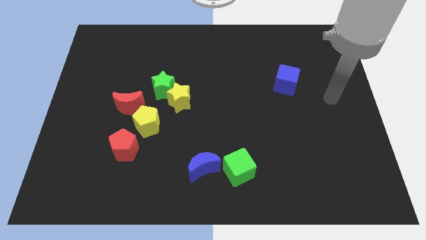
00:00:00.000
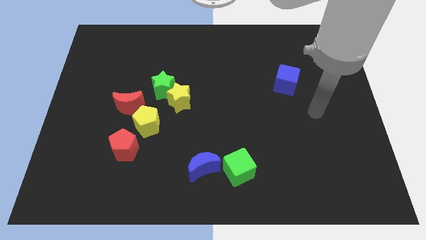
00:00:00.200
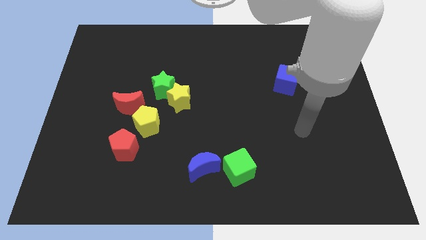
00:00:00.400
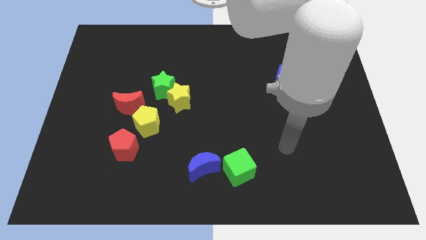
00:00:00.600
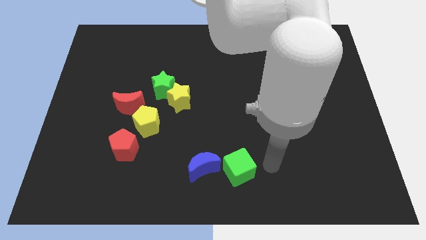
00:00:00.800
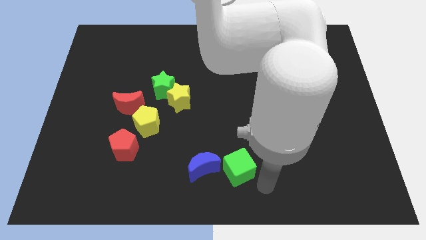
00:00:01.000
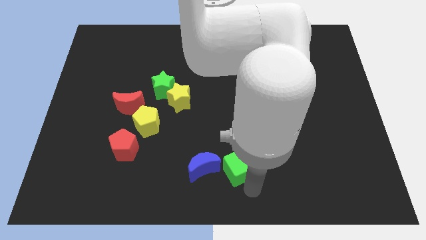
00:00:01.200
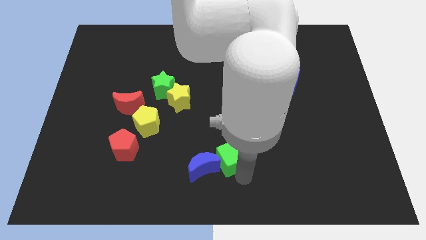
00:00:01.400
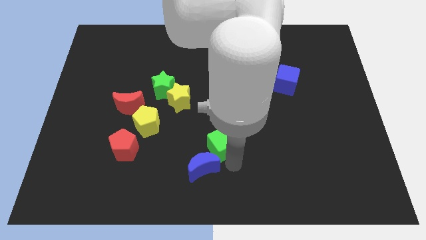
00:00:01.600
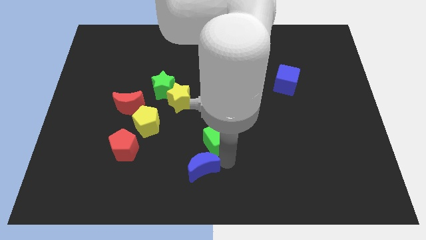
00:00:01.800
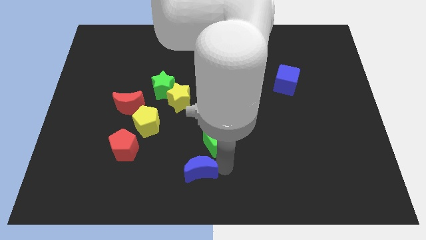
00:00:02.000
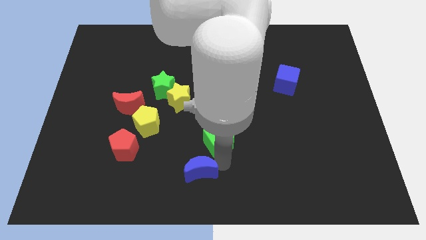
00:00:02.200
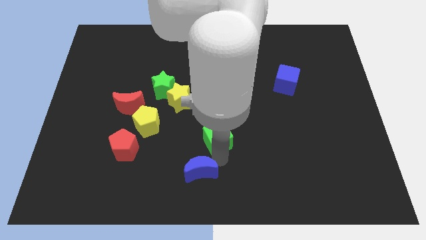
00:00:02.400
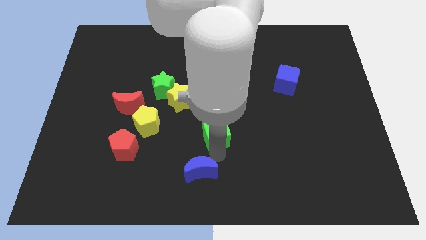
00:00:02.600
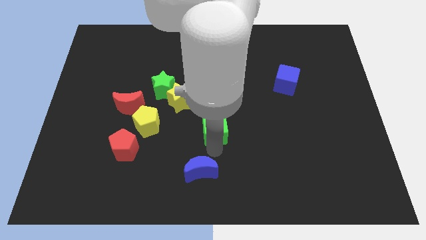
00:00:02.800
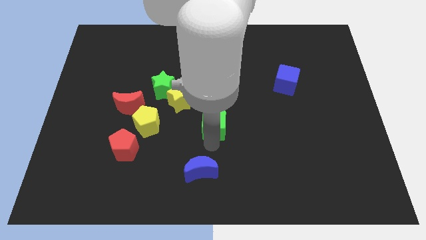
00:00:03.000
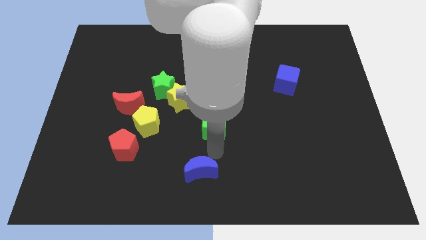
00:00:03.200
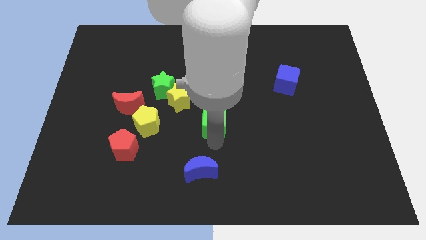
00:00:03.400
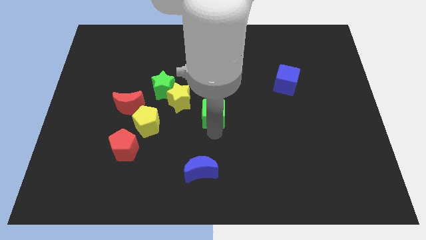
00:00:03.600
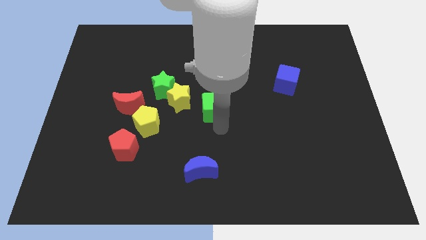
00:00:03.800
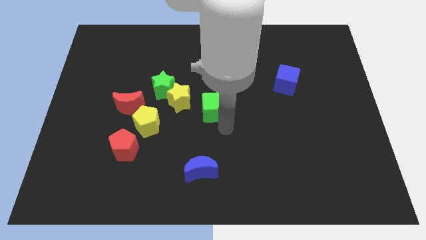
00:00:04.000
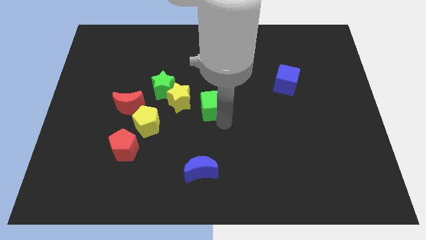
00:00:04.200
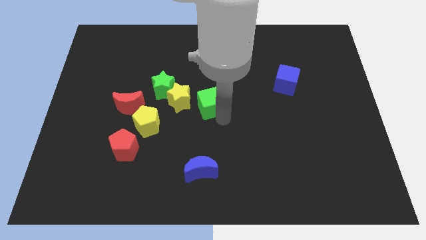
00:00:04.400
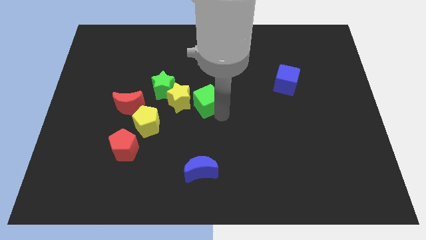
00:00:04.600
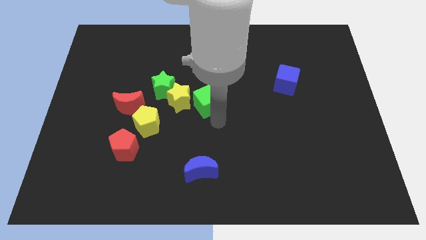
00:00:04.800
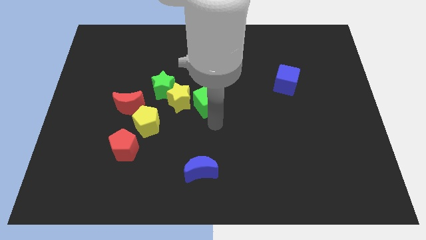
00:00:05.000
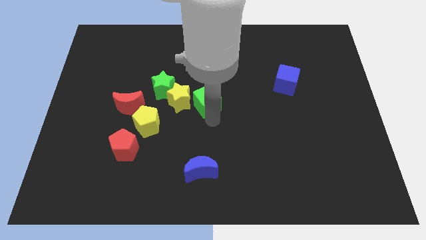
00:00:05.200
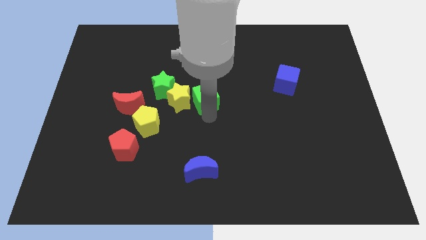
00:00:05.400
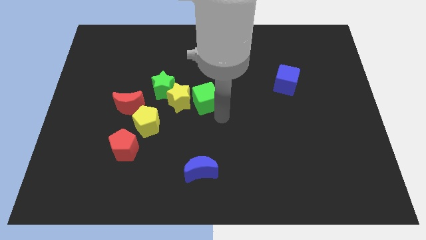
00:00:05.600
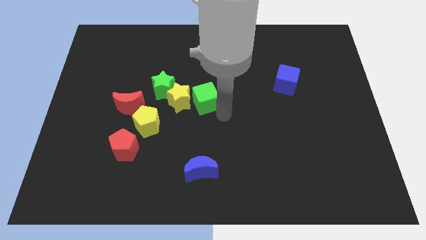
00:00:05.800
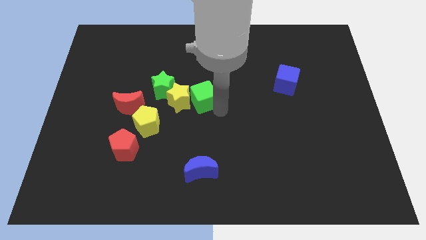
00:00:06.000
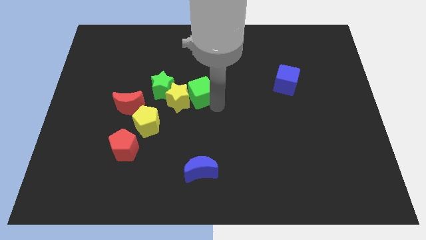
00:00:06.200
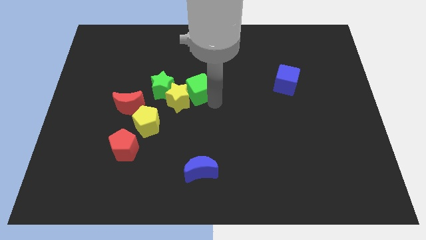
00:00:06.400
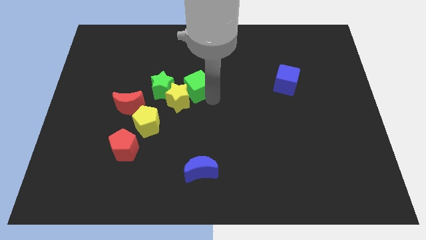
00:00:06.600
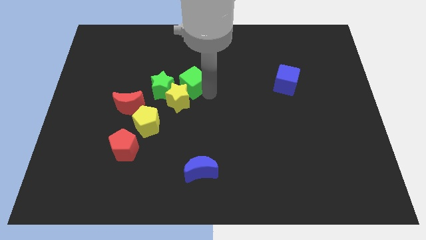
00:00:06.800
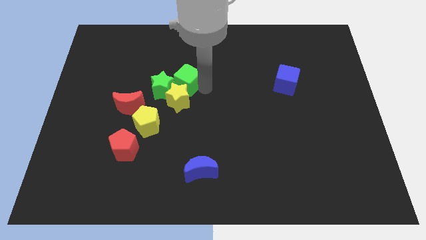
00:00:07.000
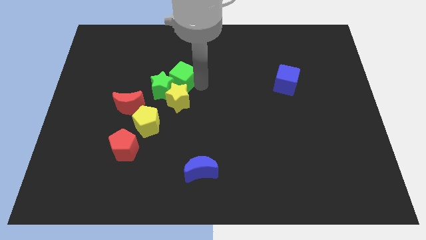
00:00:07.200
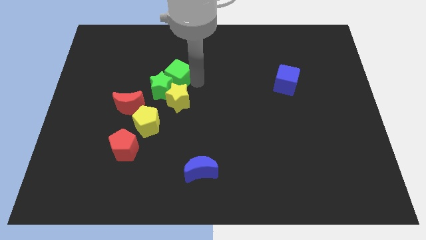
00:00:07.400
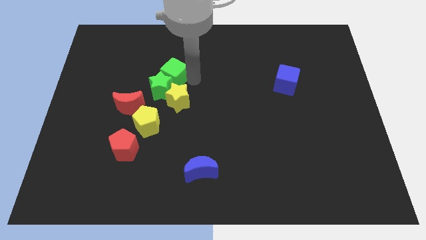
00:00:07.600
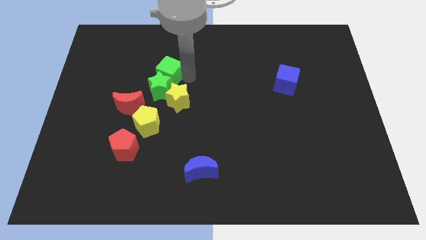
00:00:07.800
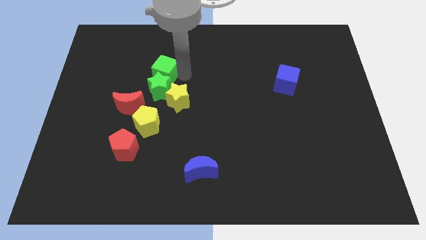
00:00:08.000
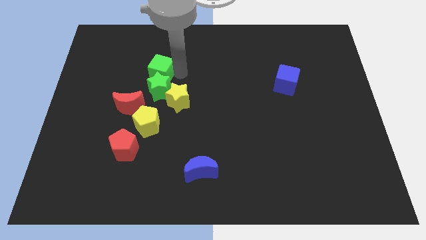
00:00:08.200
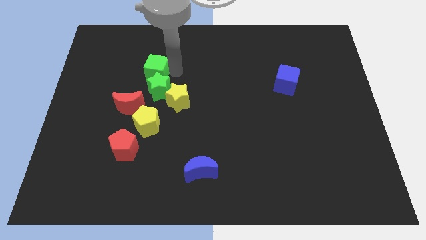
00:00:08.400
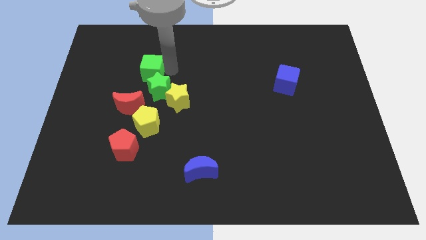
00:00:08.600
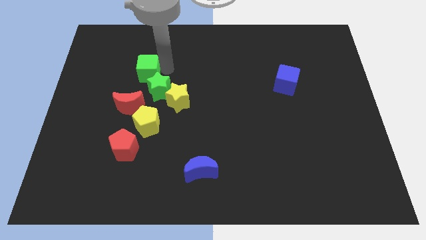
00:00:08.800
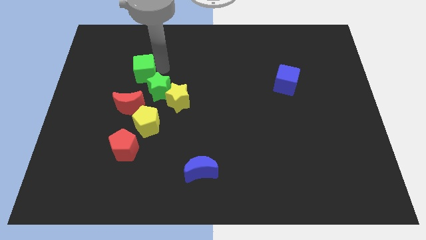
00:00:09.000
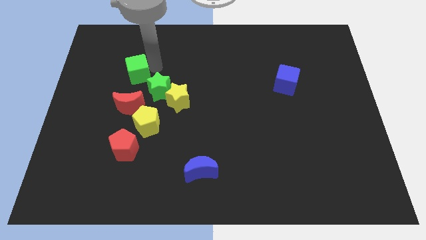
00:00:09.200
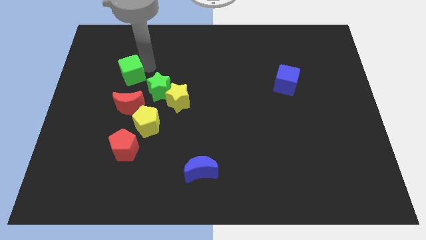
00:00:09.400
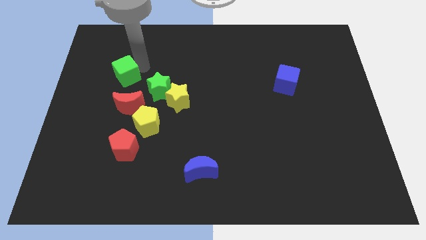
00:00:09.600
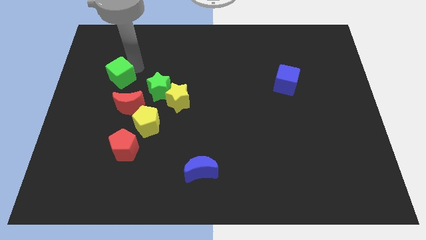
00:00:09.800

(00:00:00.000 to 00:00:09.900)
slide the green cube to the top left side of the red moon

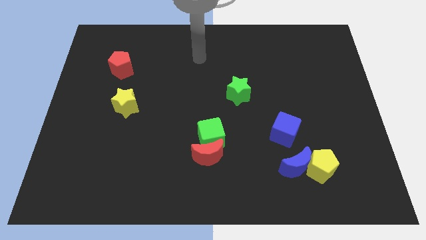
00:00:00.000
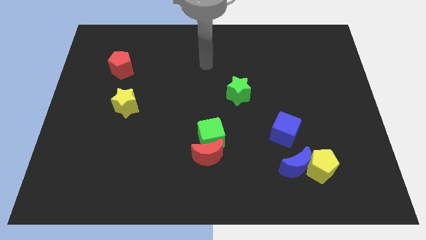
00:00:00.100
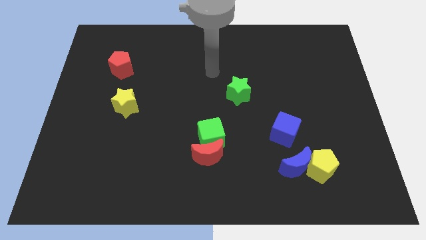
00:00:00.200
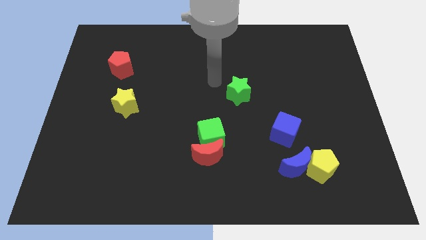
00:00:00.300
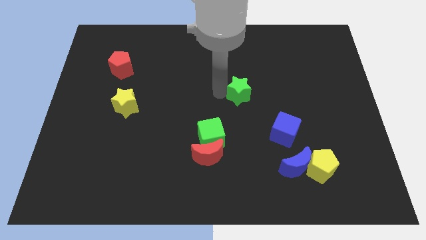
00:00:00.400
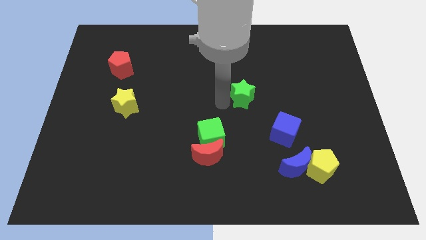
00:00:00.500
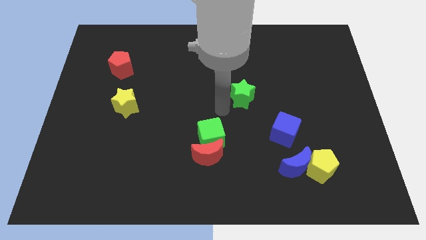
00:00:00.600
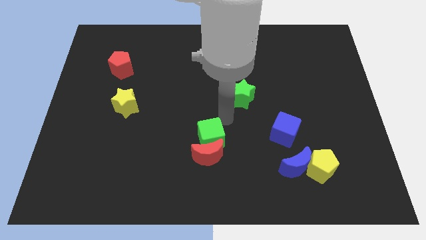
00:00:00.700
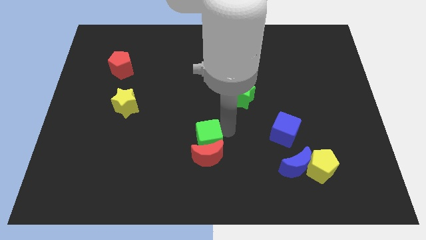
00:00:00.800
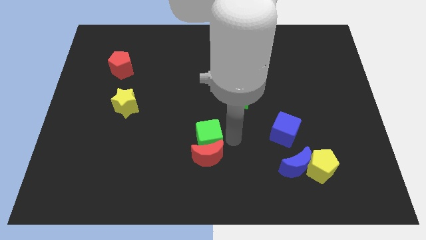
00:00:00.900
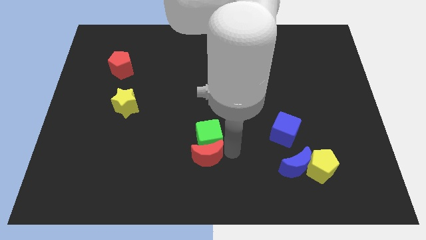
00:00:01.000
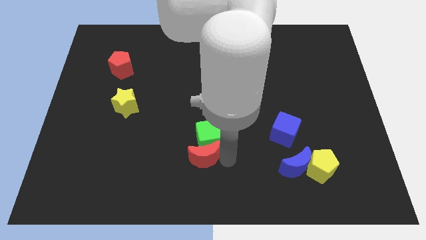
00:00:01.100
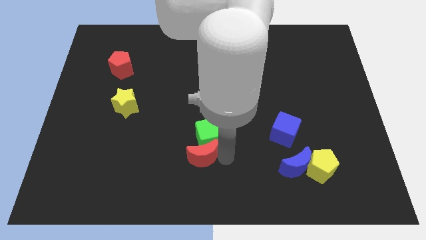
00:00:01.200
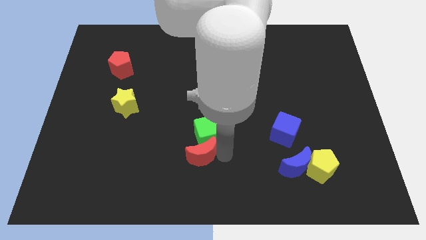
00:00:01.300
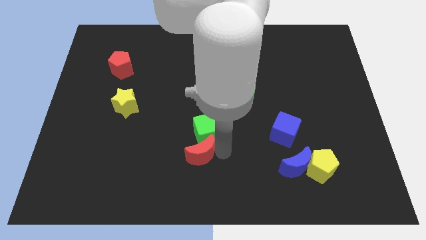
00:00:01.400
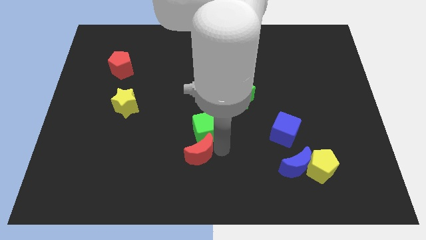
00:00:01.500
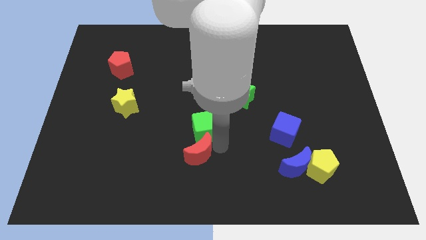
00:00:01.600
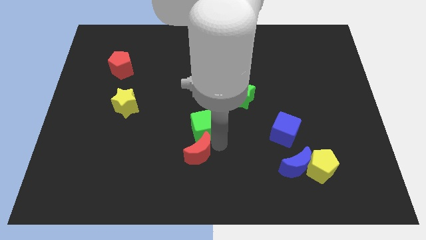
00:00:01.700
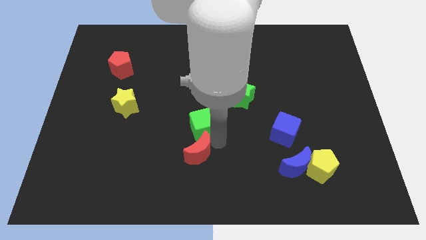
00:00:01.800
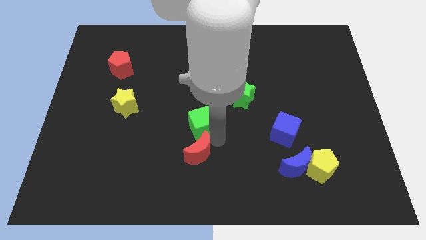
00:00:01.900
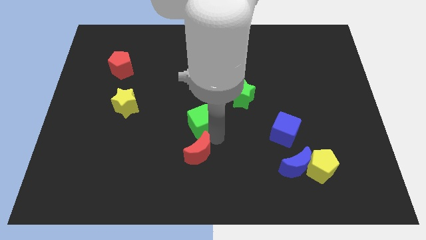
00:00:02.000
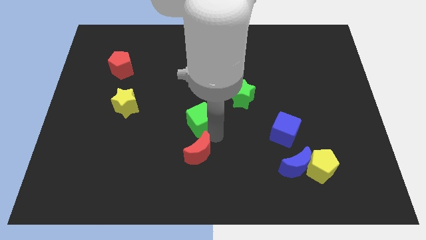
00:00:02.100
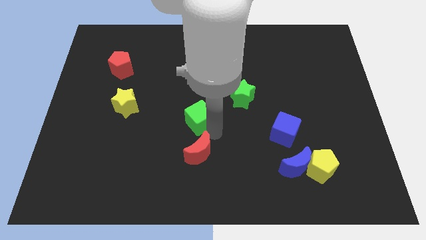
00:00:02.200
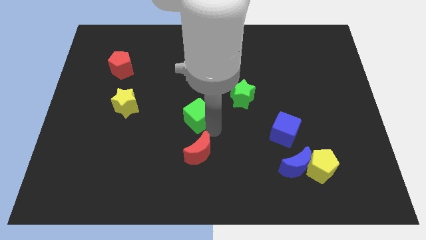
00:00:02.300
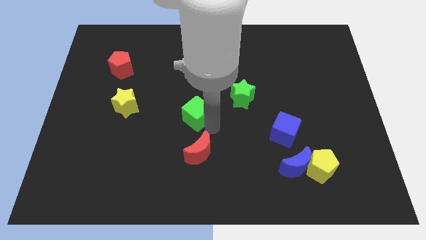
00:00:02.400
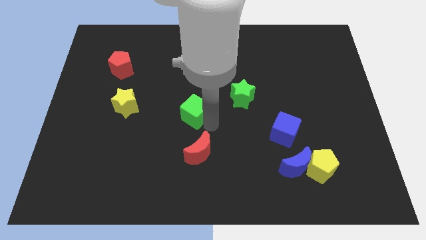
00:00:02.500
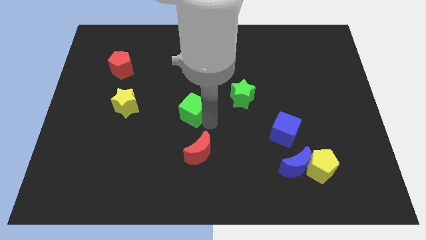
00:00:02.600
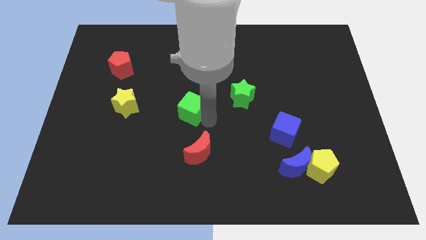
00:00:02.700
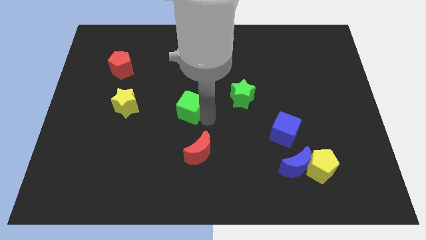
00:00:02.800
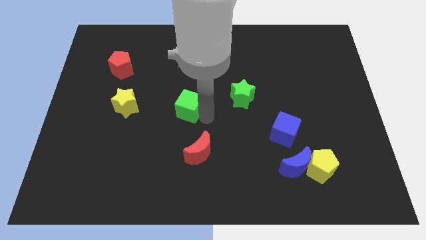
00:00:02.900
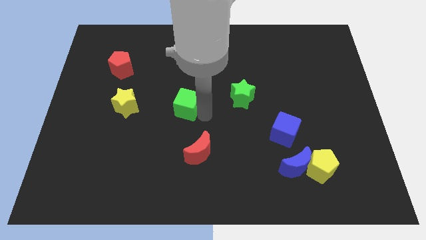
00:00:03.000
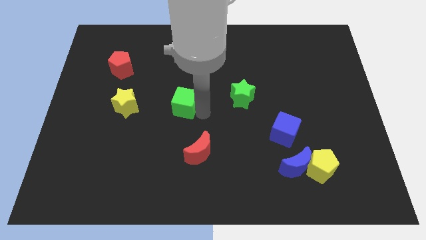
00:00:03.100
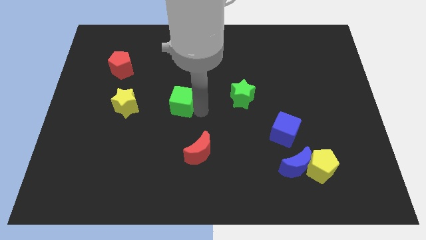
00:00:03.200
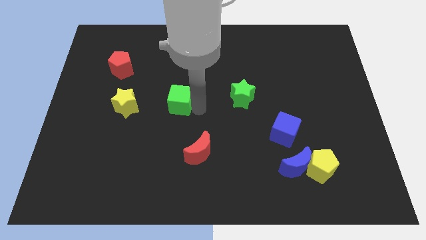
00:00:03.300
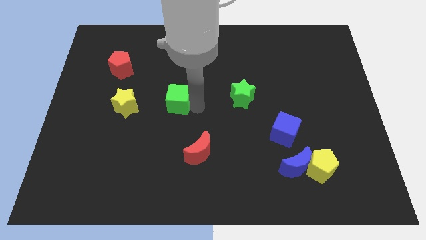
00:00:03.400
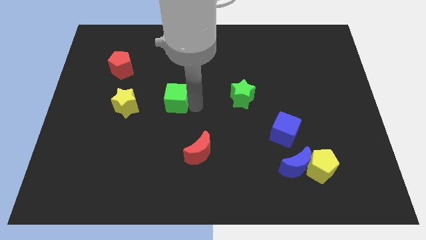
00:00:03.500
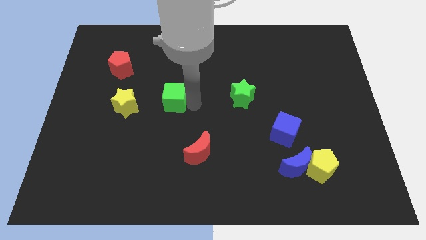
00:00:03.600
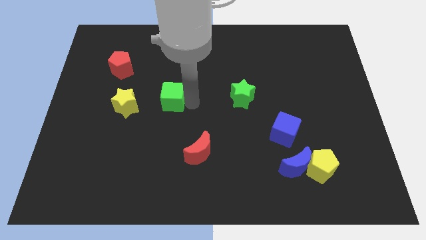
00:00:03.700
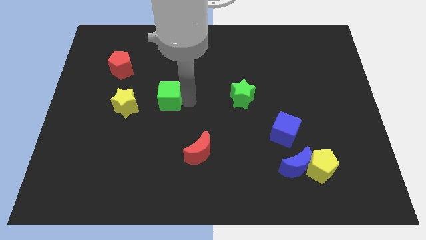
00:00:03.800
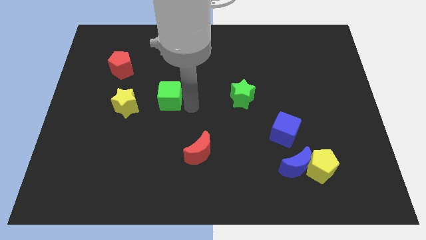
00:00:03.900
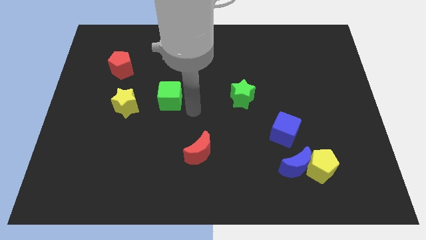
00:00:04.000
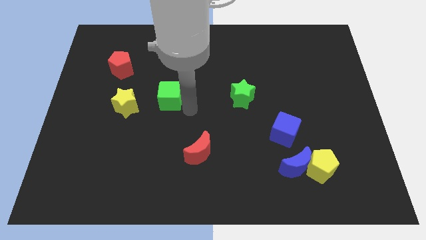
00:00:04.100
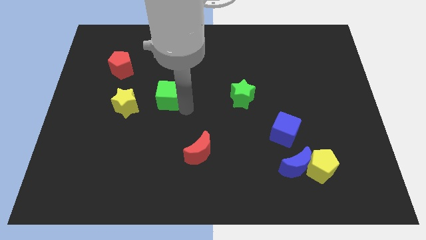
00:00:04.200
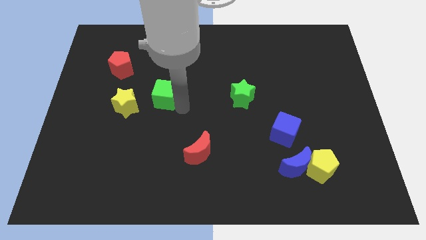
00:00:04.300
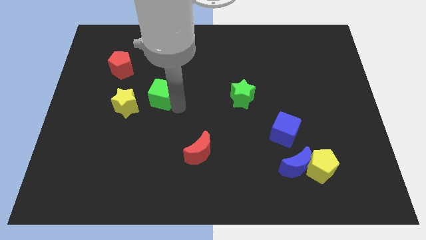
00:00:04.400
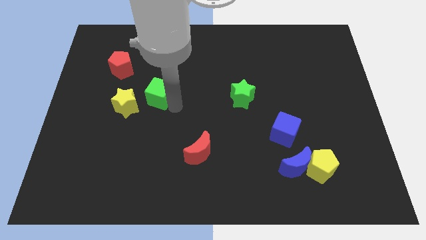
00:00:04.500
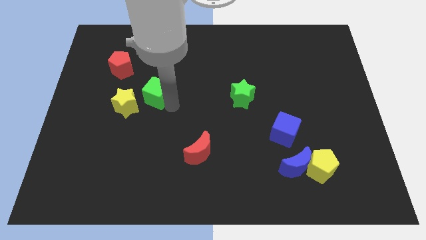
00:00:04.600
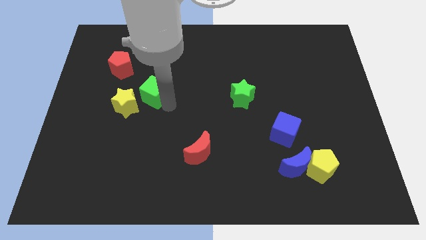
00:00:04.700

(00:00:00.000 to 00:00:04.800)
move the green cube to the bottom right of the red pentagon
